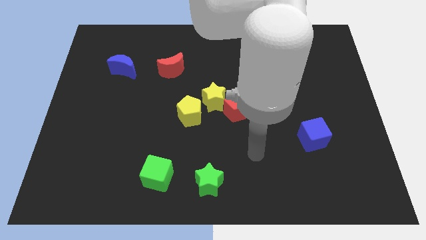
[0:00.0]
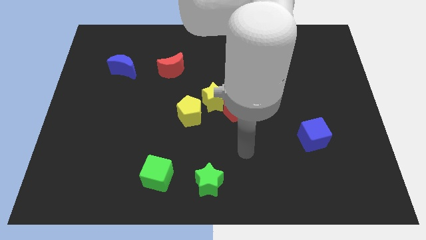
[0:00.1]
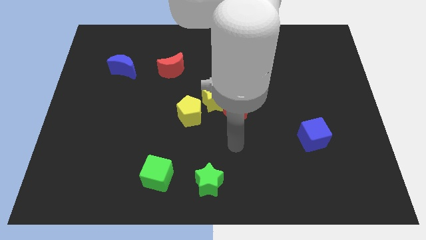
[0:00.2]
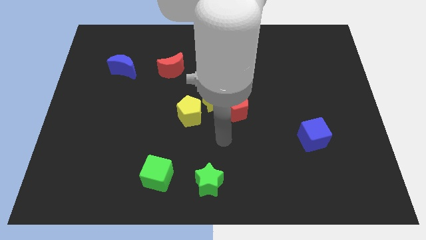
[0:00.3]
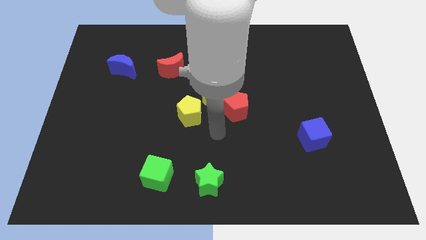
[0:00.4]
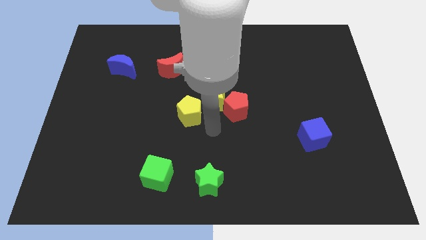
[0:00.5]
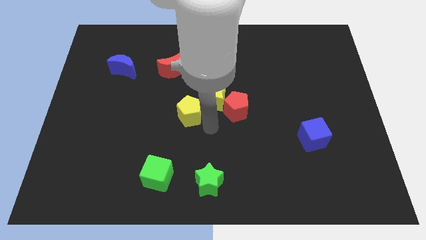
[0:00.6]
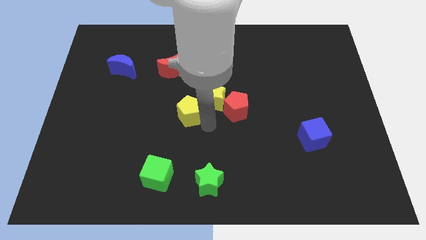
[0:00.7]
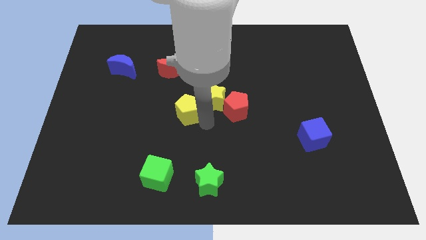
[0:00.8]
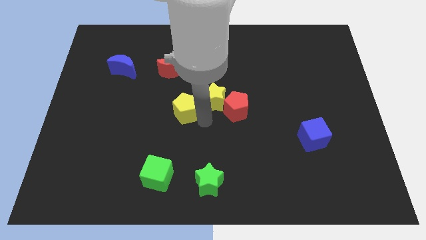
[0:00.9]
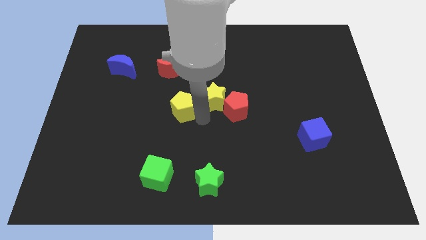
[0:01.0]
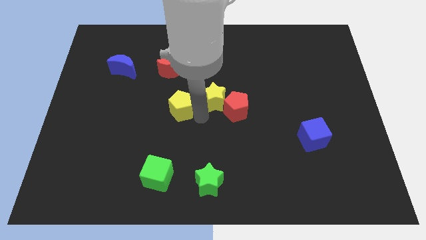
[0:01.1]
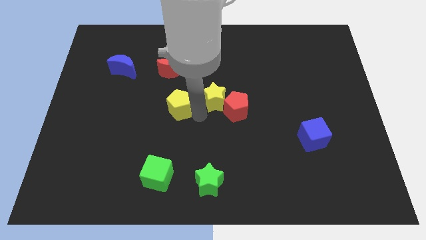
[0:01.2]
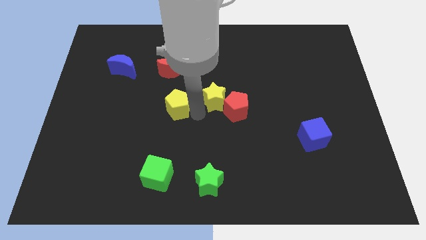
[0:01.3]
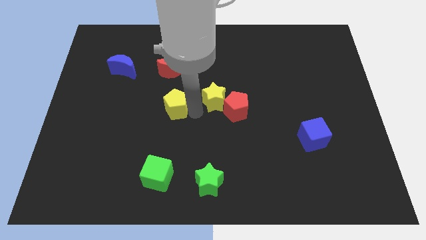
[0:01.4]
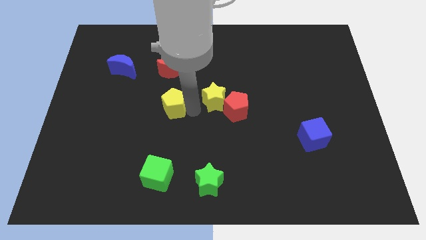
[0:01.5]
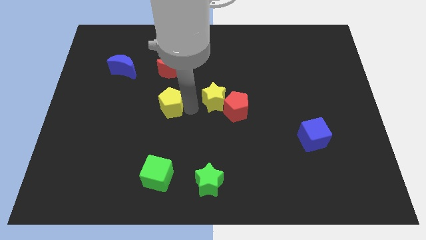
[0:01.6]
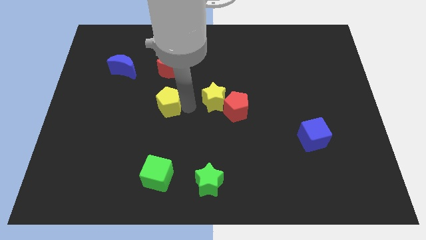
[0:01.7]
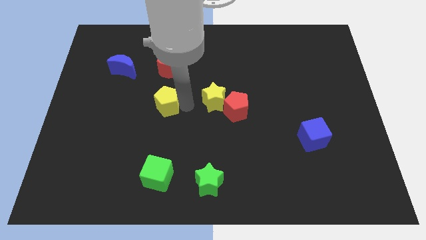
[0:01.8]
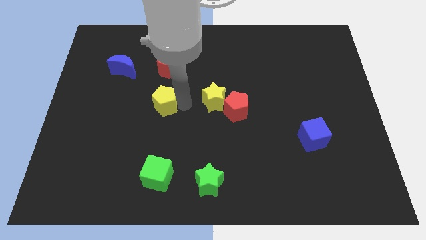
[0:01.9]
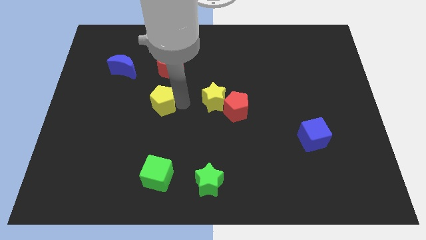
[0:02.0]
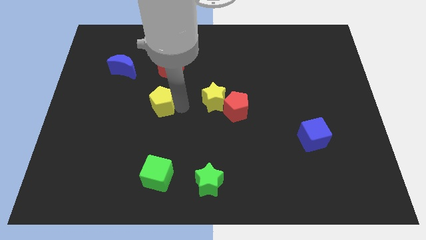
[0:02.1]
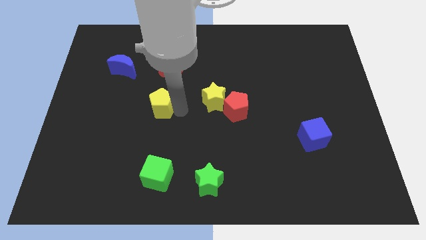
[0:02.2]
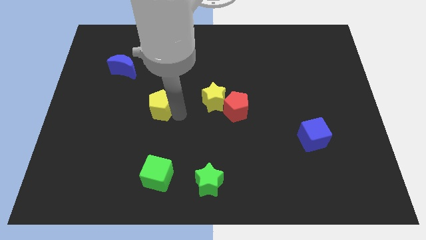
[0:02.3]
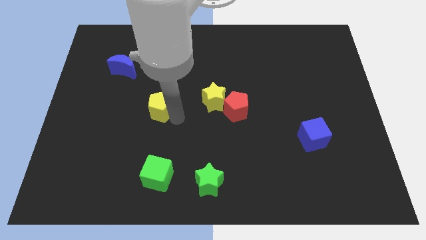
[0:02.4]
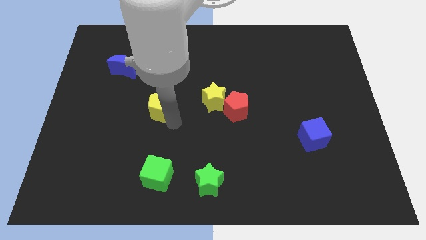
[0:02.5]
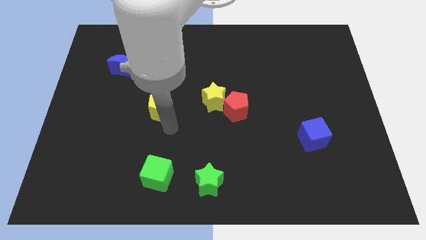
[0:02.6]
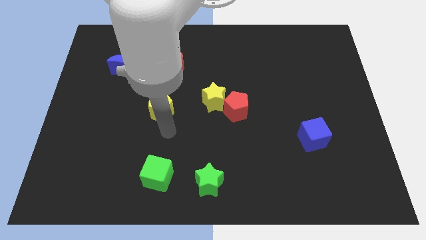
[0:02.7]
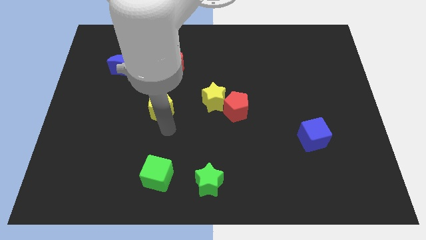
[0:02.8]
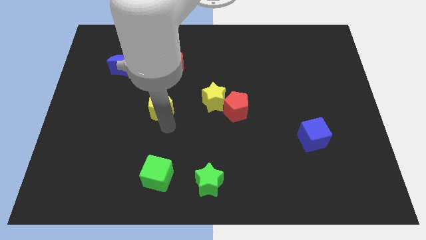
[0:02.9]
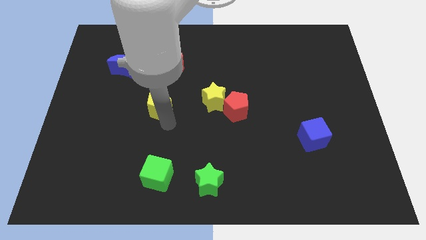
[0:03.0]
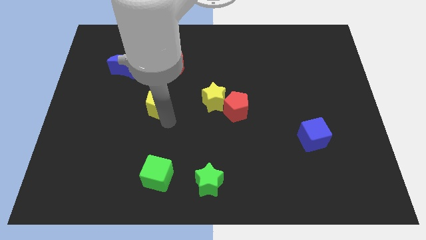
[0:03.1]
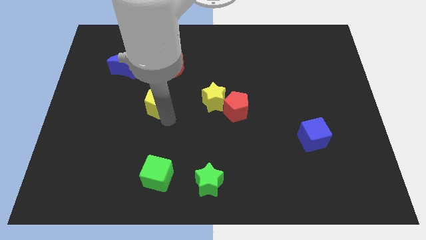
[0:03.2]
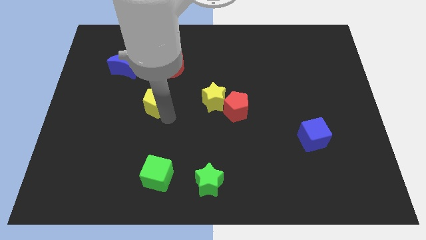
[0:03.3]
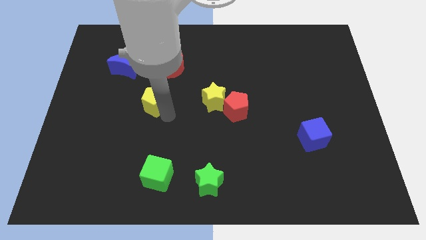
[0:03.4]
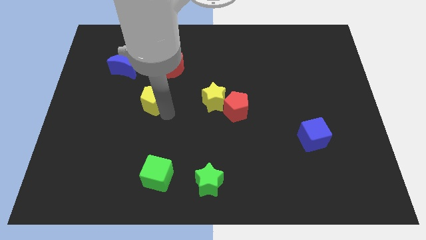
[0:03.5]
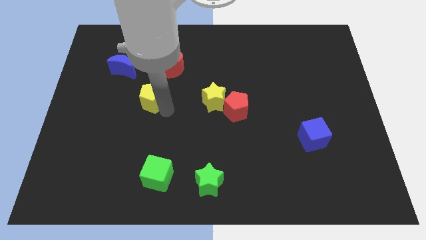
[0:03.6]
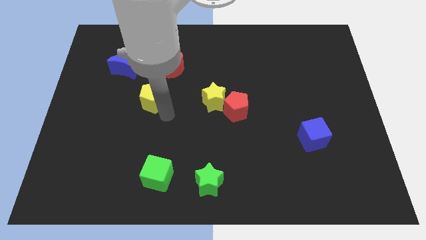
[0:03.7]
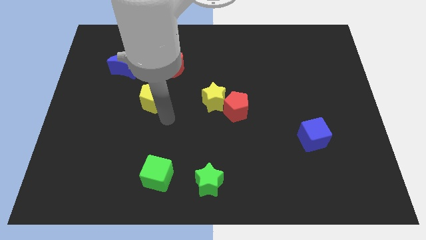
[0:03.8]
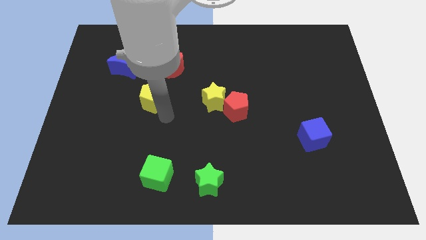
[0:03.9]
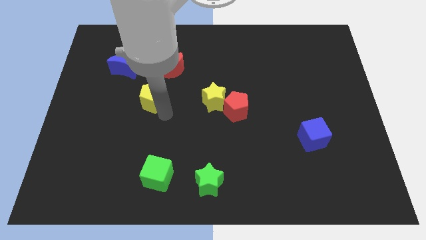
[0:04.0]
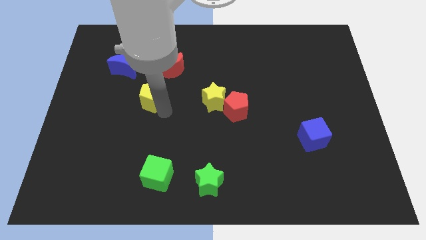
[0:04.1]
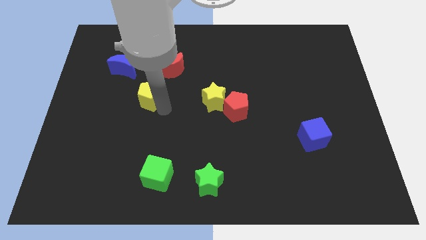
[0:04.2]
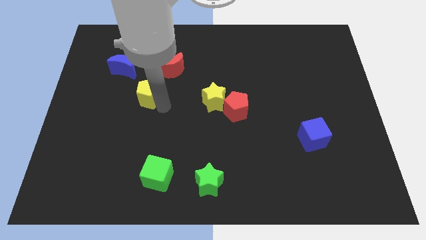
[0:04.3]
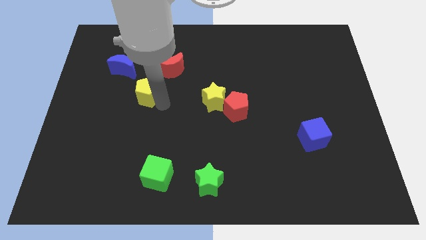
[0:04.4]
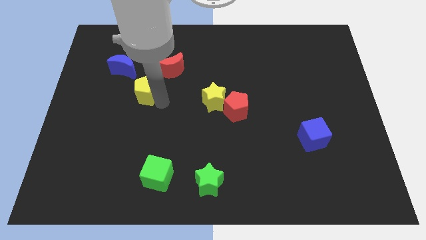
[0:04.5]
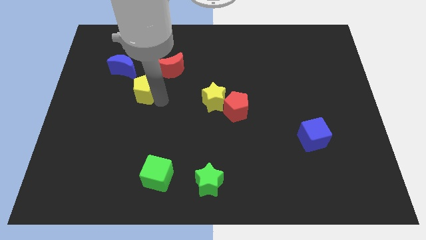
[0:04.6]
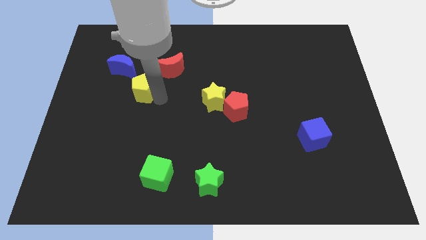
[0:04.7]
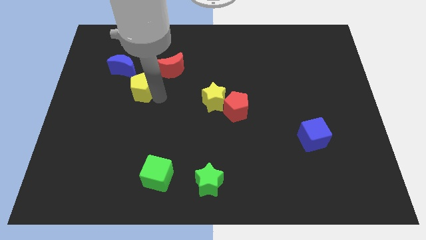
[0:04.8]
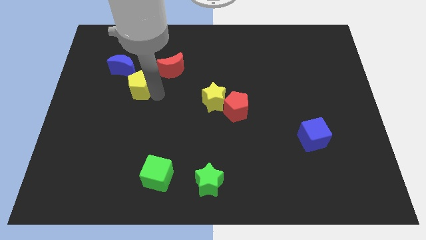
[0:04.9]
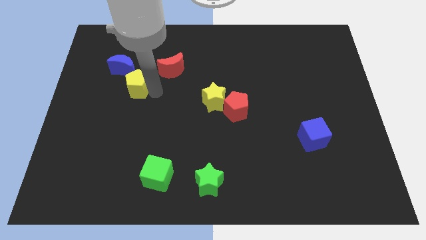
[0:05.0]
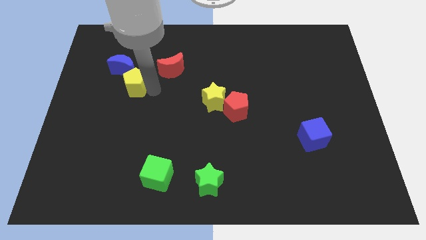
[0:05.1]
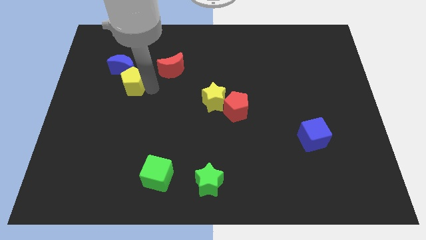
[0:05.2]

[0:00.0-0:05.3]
put the yellow pentagon close to the blue moon
